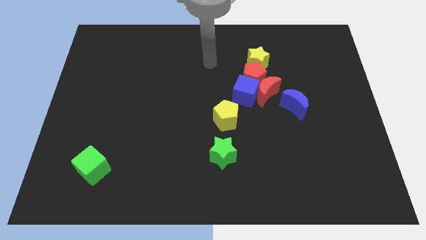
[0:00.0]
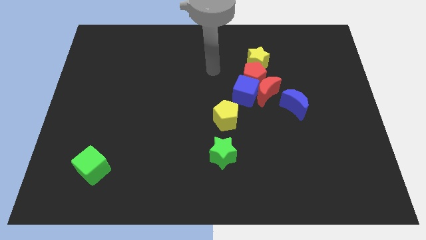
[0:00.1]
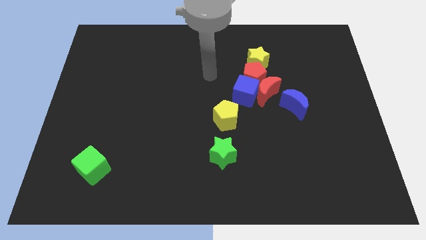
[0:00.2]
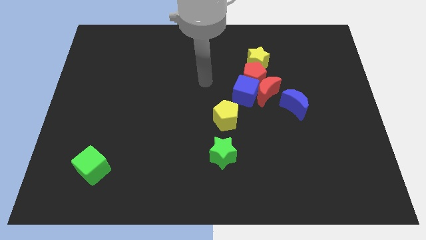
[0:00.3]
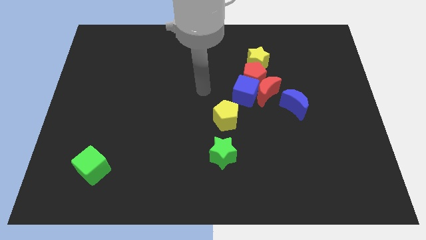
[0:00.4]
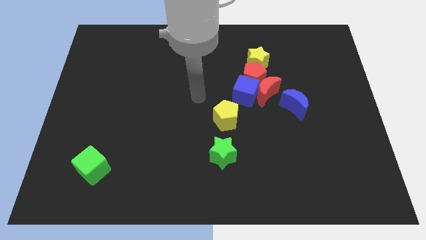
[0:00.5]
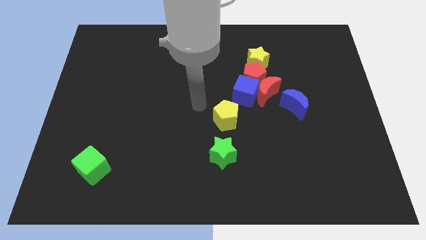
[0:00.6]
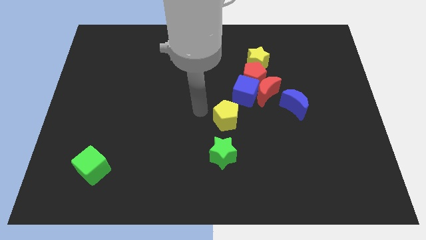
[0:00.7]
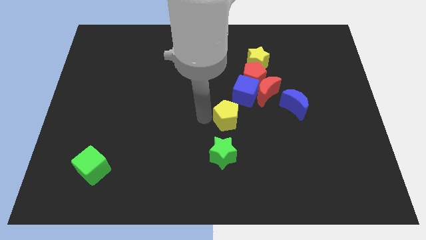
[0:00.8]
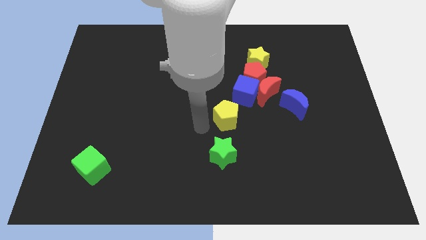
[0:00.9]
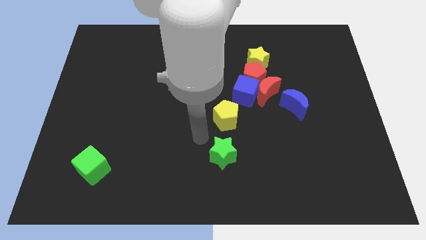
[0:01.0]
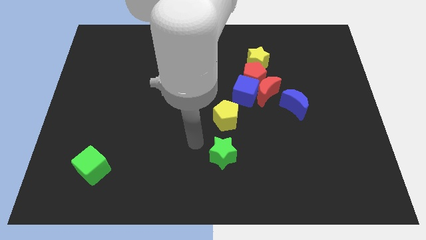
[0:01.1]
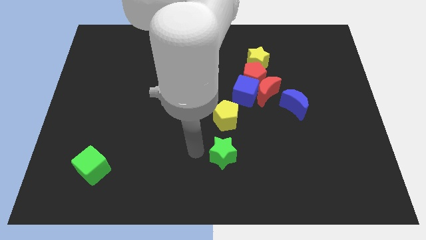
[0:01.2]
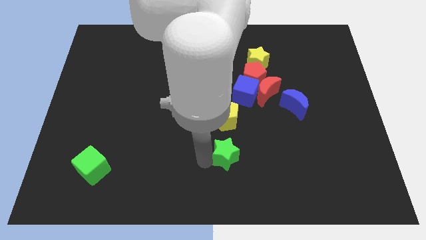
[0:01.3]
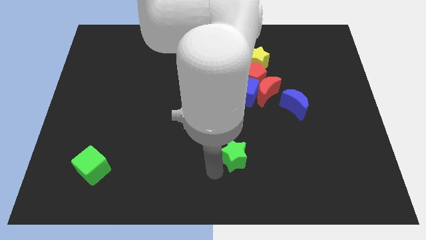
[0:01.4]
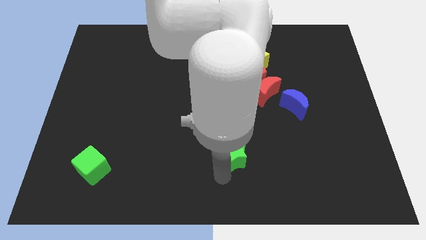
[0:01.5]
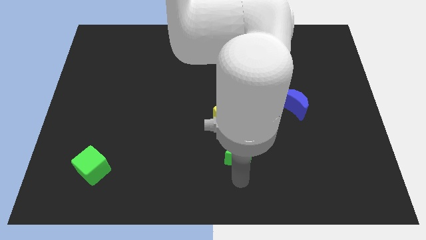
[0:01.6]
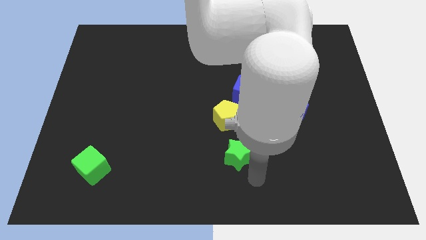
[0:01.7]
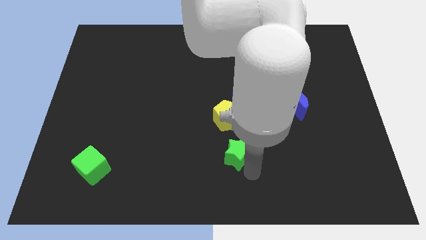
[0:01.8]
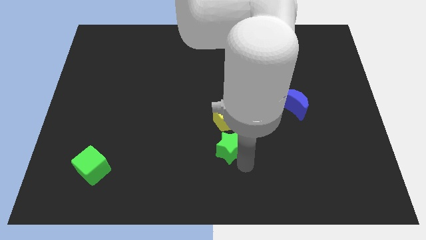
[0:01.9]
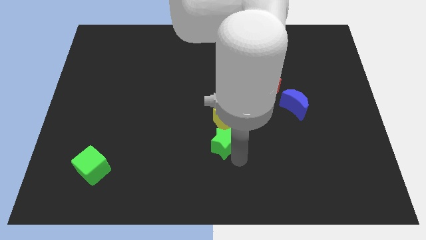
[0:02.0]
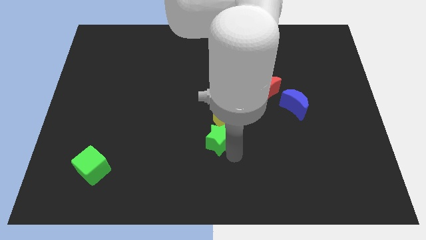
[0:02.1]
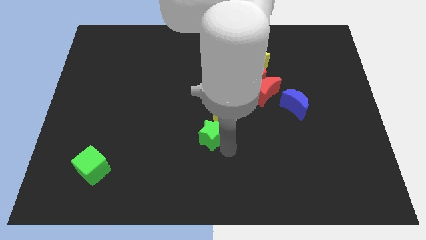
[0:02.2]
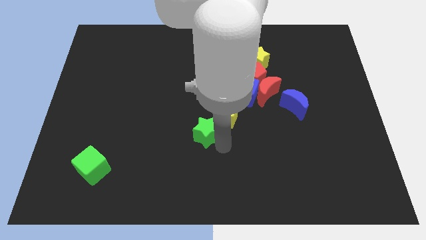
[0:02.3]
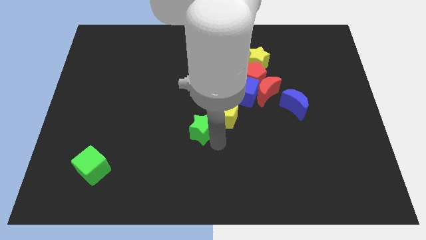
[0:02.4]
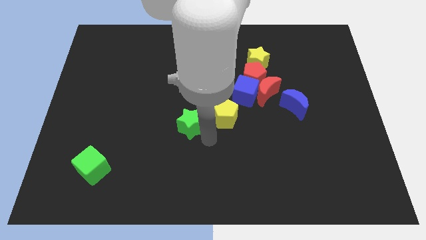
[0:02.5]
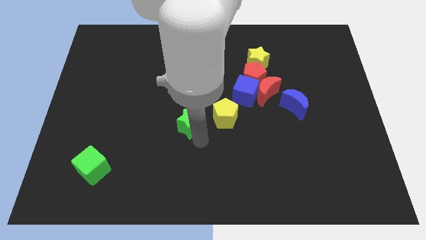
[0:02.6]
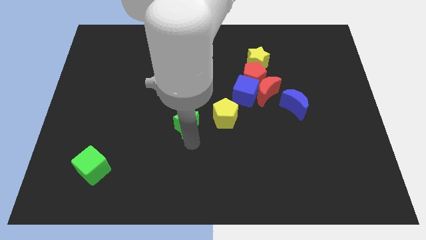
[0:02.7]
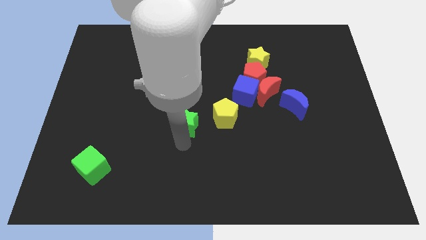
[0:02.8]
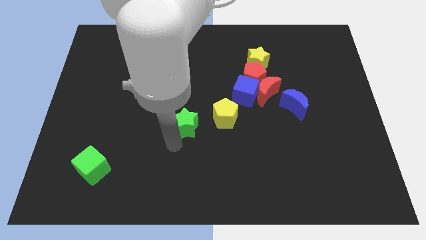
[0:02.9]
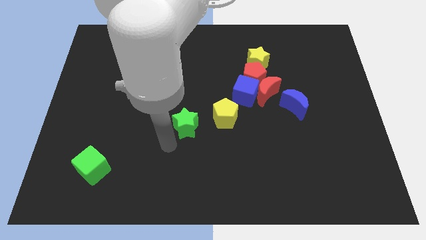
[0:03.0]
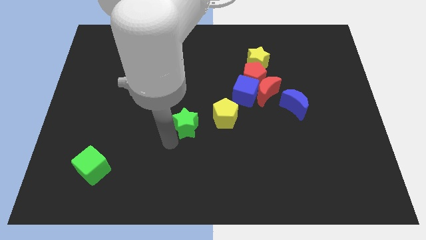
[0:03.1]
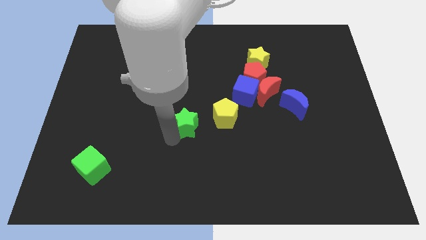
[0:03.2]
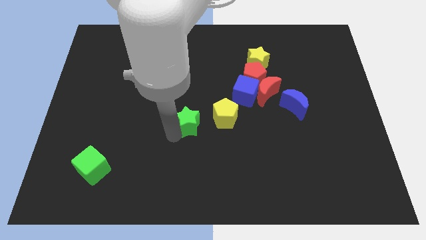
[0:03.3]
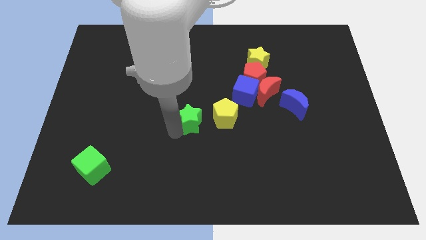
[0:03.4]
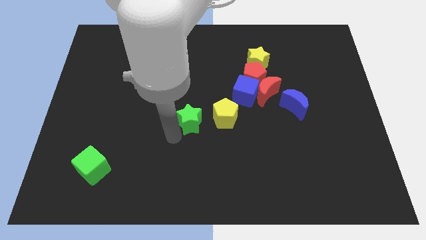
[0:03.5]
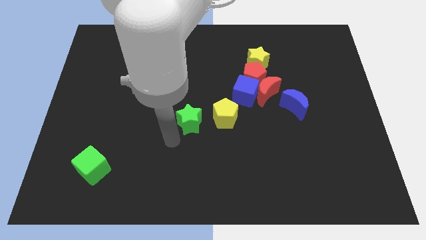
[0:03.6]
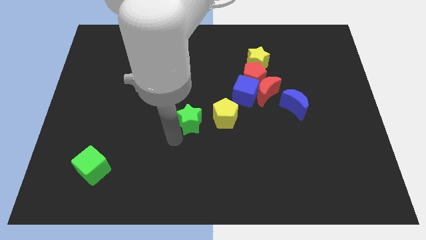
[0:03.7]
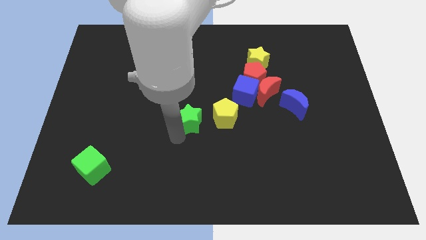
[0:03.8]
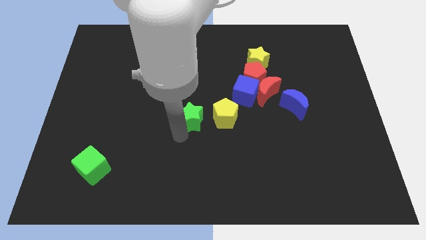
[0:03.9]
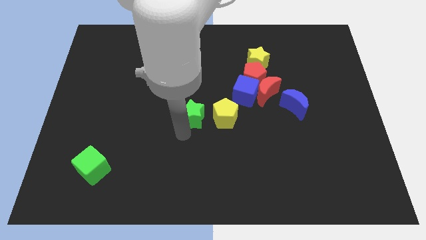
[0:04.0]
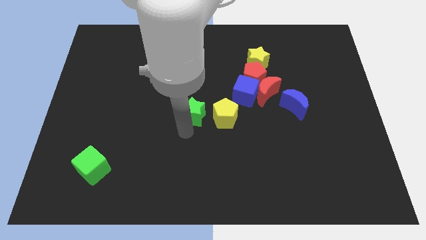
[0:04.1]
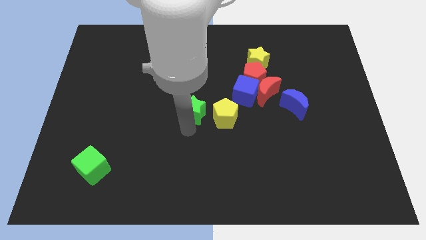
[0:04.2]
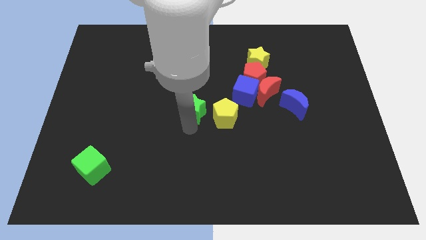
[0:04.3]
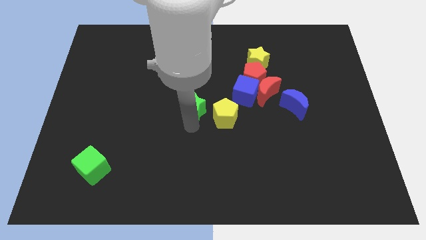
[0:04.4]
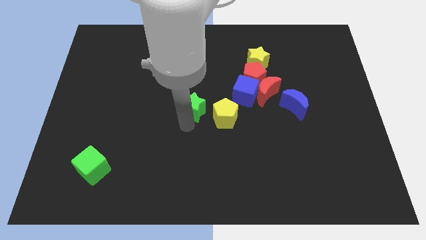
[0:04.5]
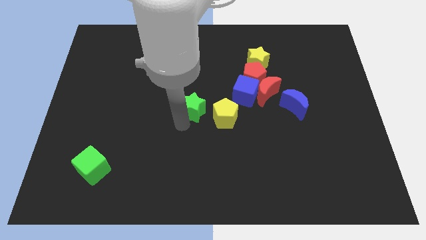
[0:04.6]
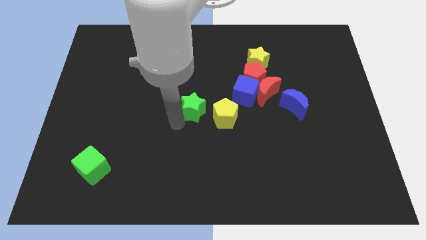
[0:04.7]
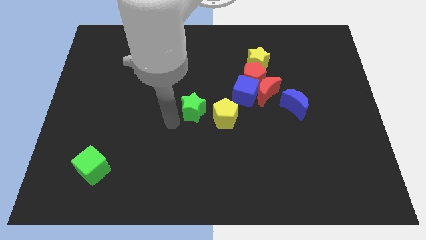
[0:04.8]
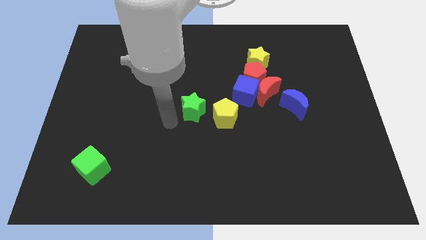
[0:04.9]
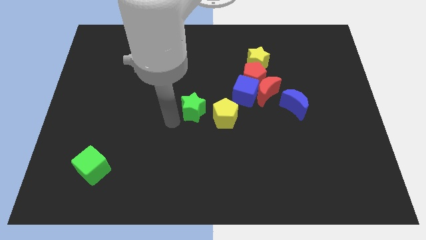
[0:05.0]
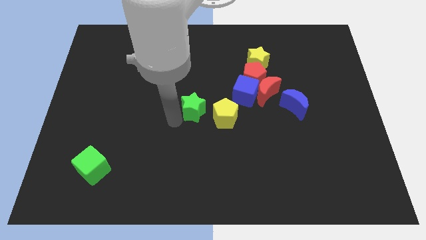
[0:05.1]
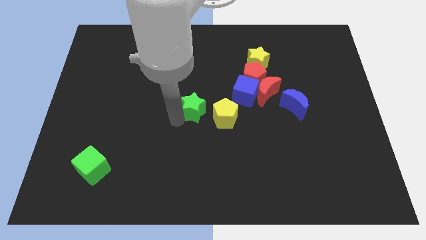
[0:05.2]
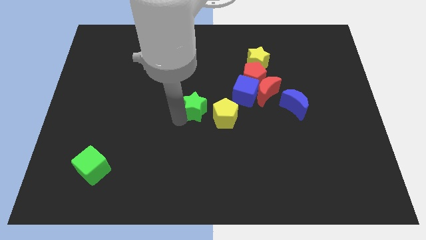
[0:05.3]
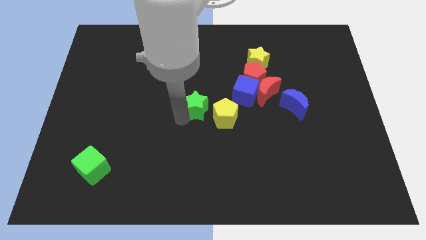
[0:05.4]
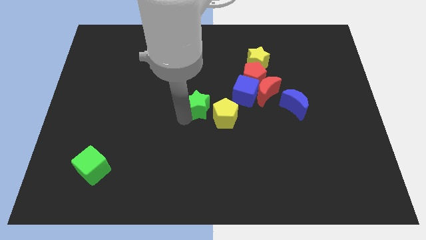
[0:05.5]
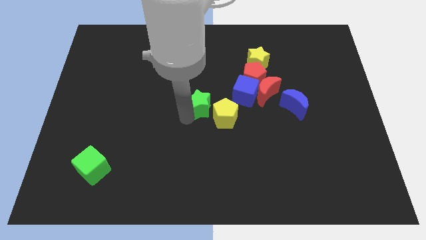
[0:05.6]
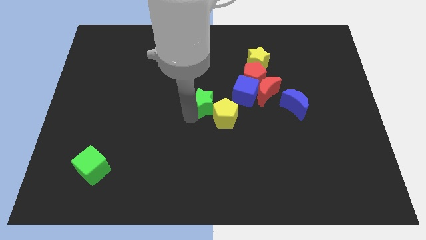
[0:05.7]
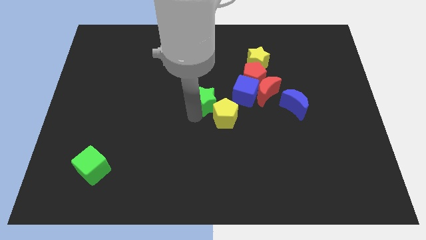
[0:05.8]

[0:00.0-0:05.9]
move the green star above the yellow pentagon
